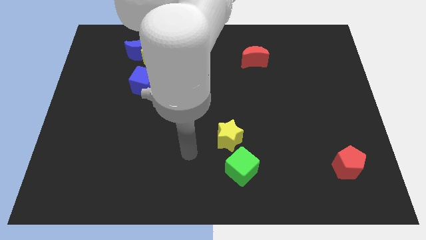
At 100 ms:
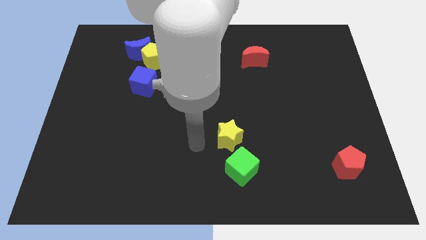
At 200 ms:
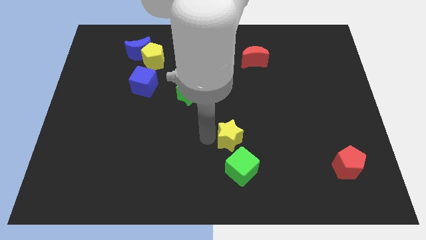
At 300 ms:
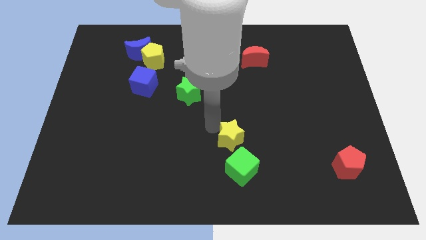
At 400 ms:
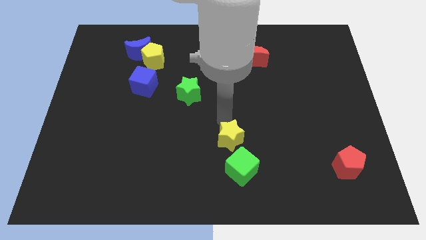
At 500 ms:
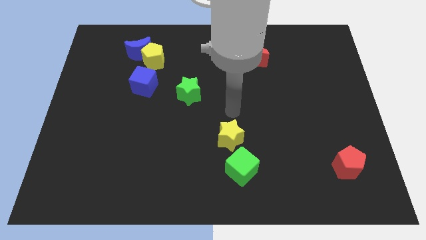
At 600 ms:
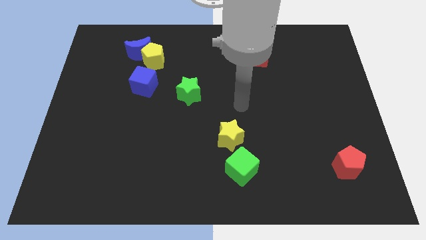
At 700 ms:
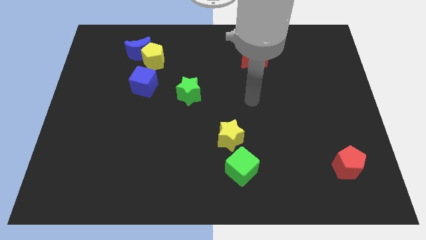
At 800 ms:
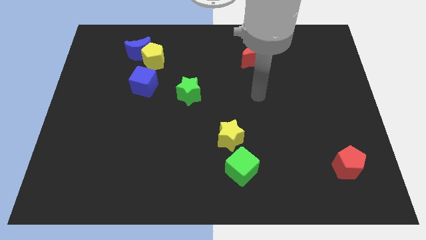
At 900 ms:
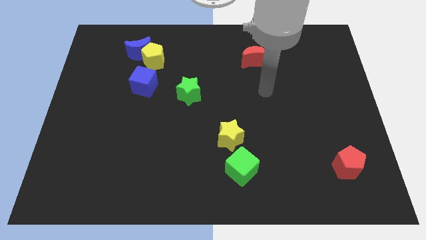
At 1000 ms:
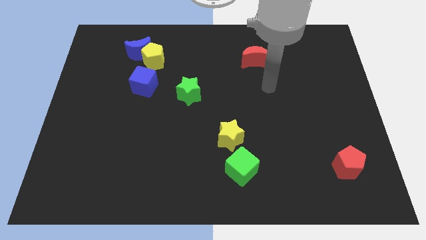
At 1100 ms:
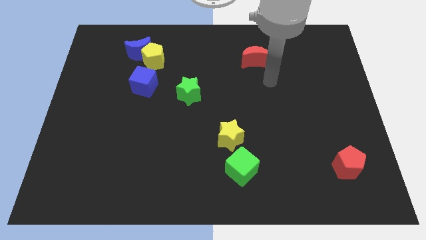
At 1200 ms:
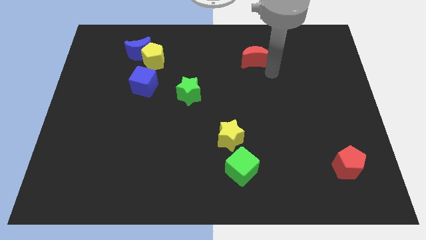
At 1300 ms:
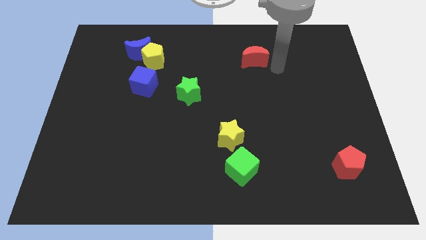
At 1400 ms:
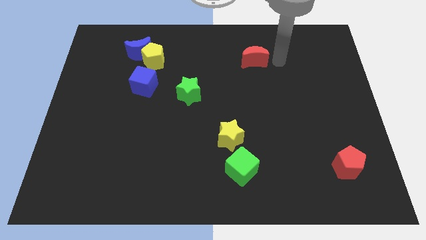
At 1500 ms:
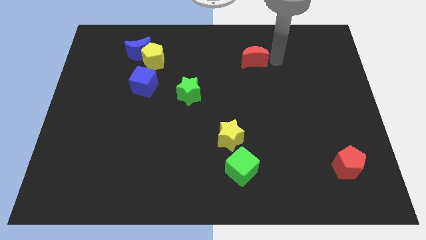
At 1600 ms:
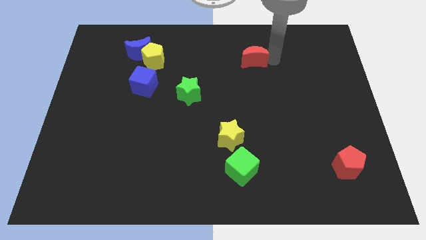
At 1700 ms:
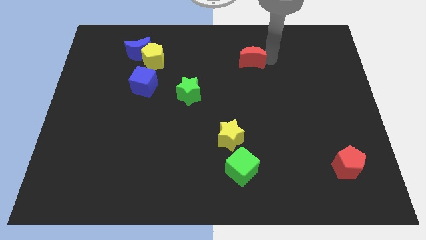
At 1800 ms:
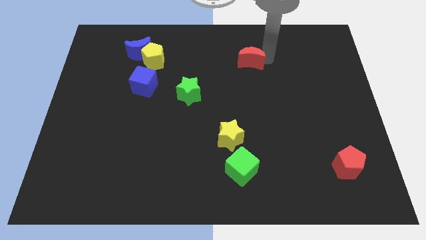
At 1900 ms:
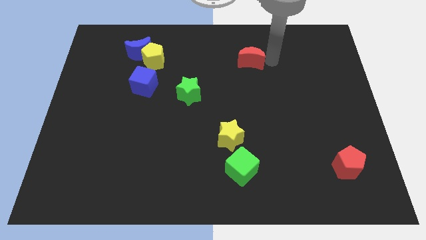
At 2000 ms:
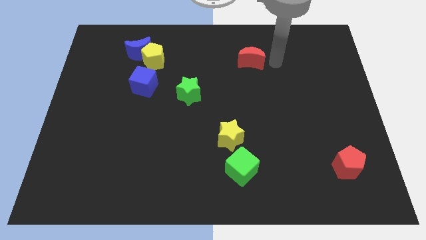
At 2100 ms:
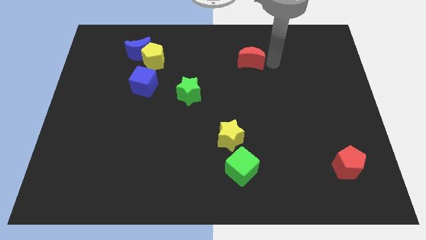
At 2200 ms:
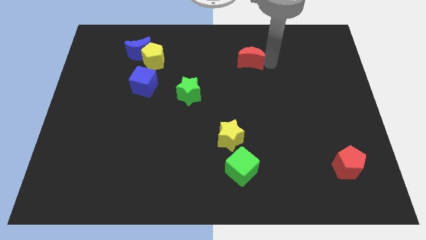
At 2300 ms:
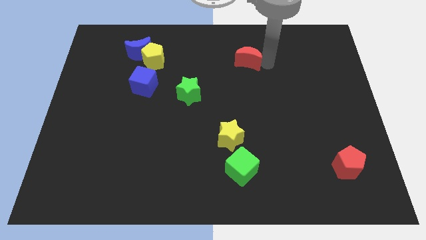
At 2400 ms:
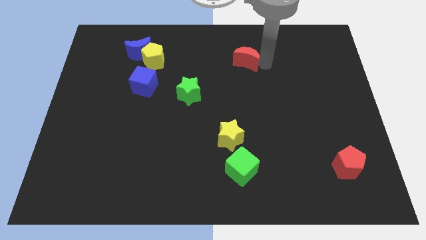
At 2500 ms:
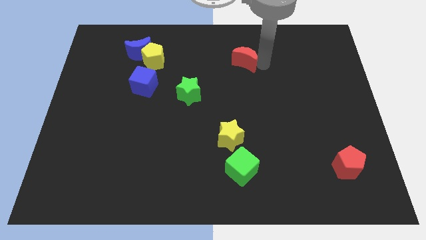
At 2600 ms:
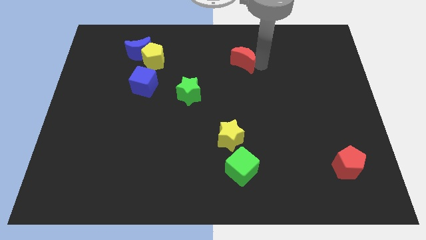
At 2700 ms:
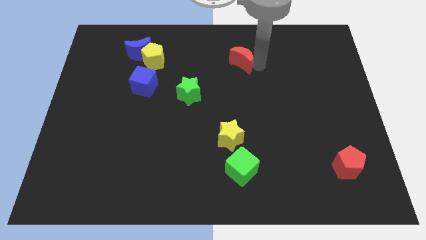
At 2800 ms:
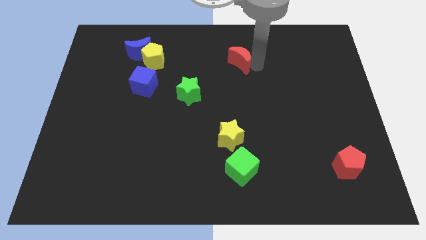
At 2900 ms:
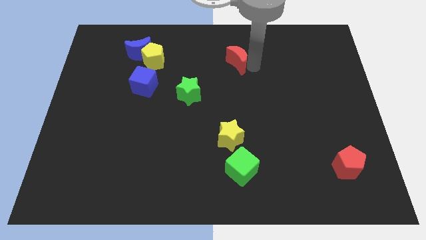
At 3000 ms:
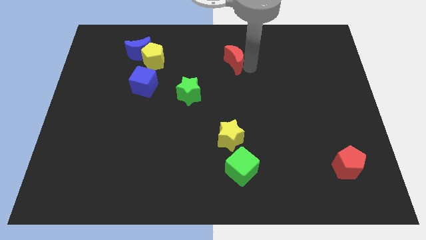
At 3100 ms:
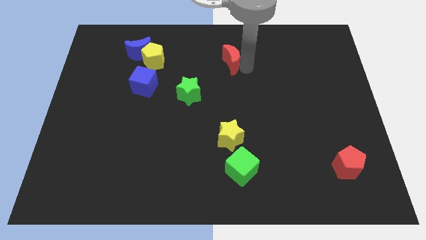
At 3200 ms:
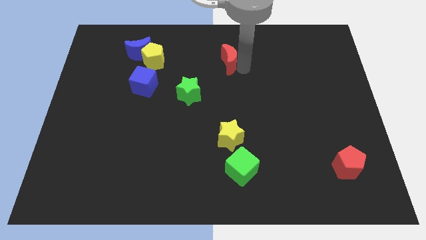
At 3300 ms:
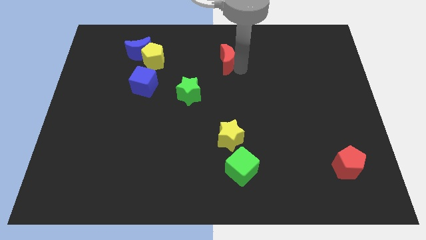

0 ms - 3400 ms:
push the red moon somewhat left

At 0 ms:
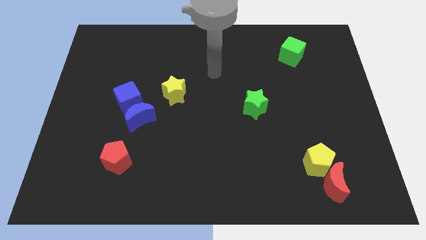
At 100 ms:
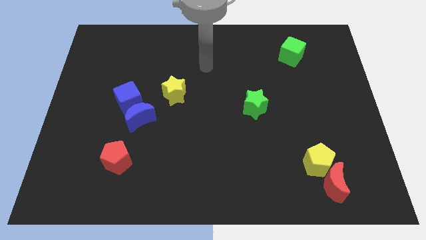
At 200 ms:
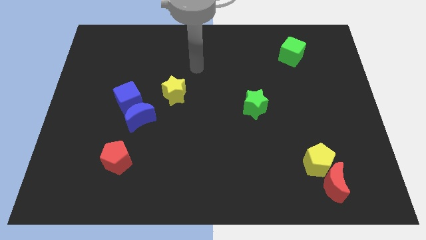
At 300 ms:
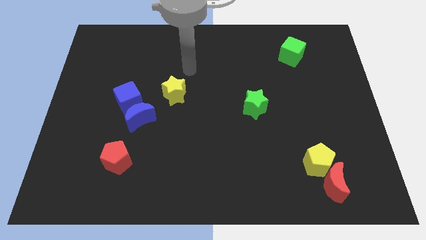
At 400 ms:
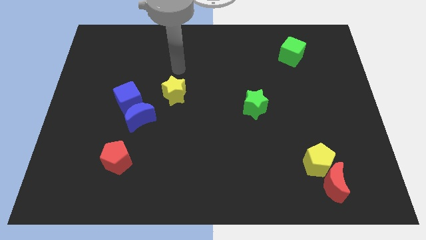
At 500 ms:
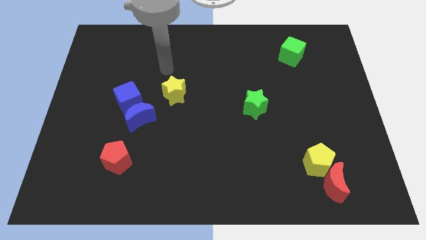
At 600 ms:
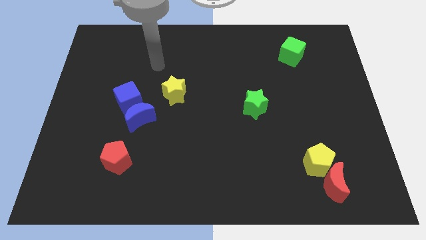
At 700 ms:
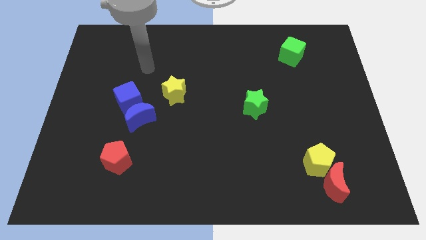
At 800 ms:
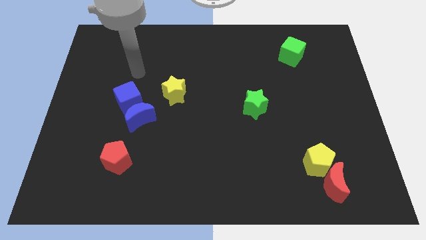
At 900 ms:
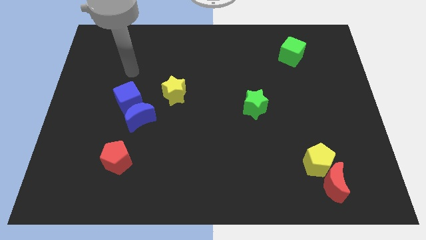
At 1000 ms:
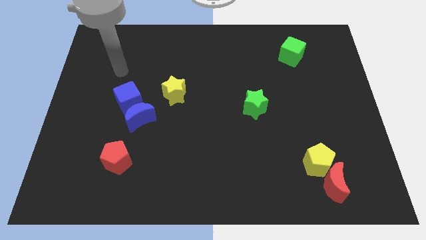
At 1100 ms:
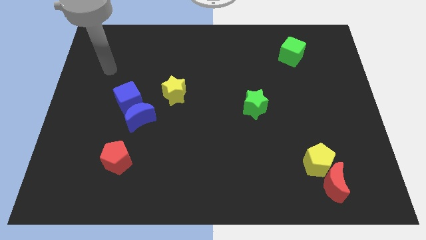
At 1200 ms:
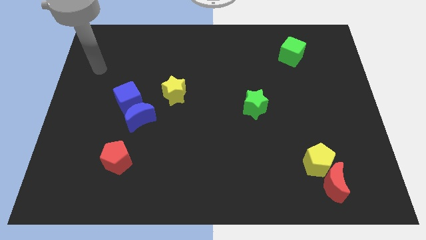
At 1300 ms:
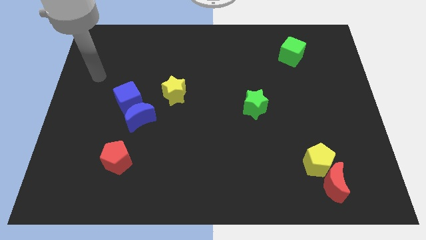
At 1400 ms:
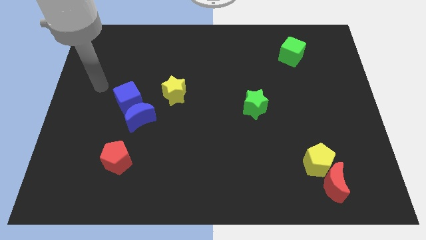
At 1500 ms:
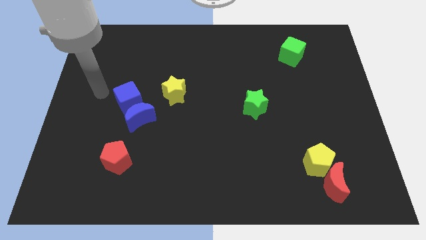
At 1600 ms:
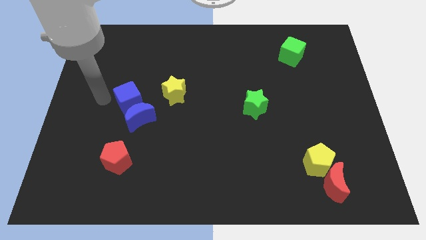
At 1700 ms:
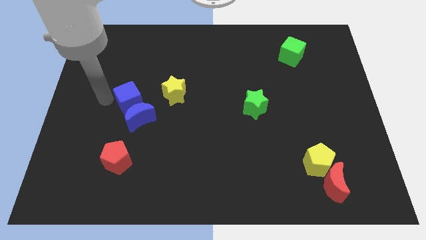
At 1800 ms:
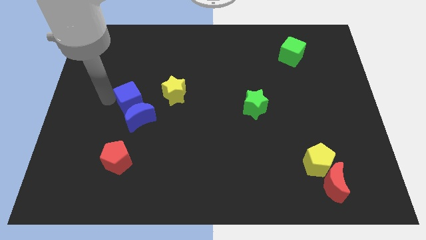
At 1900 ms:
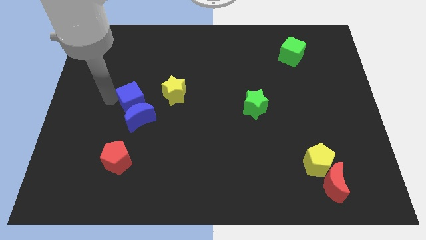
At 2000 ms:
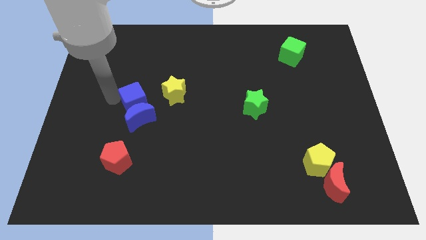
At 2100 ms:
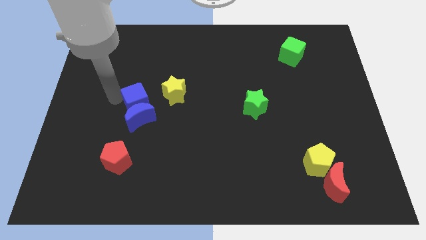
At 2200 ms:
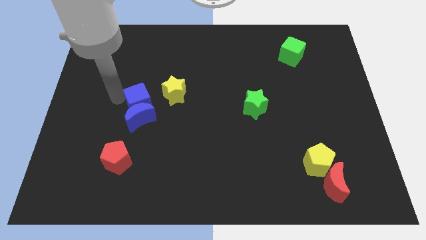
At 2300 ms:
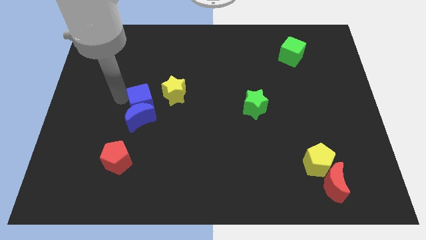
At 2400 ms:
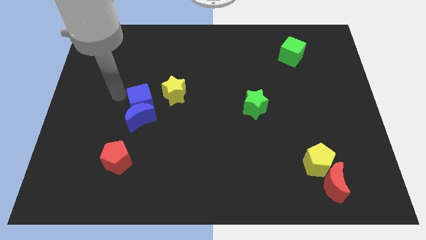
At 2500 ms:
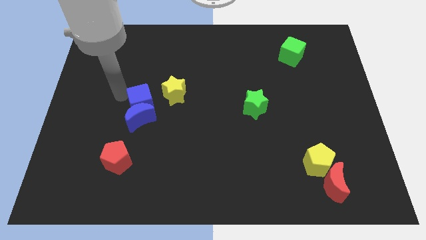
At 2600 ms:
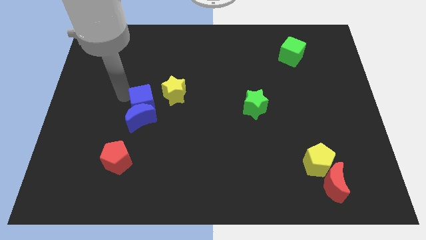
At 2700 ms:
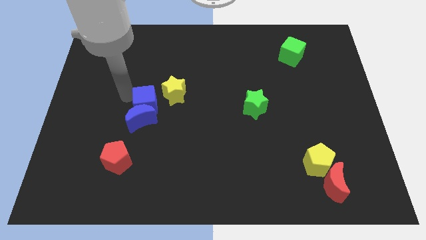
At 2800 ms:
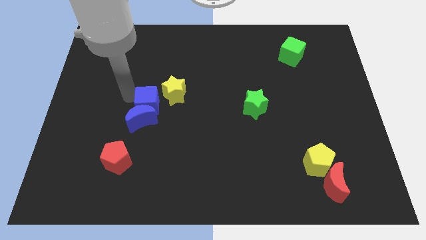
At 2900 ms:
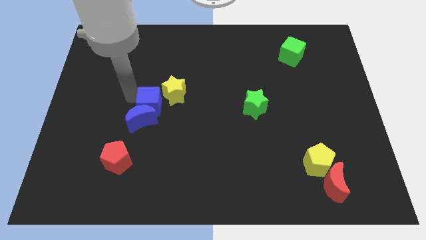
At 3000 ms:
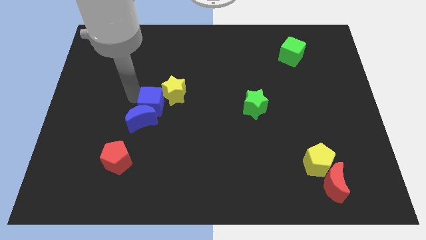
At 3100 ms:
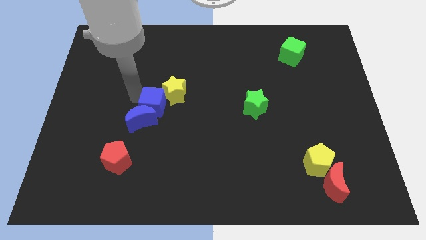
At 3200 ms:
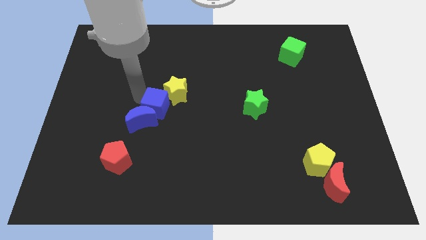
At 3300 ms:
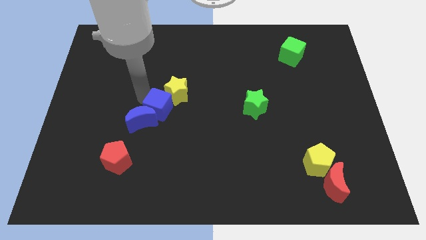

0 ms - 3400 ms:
slide the blue cube to the right a bit

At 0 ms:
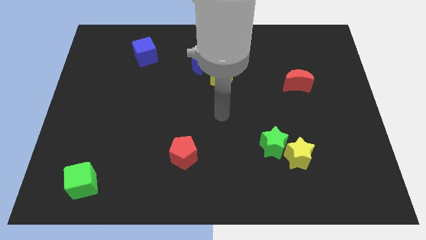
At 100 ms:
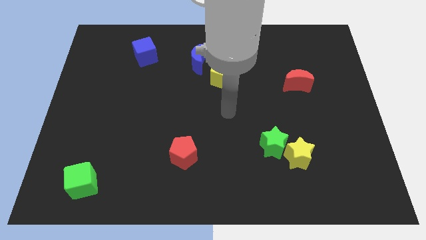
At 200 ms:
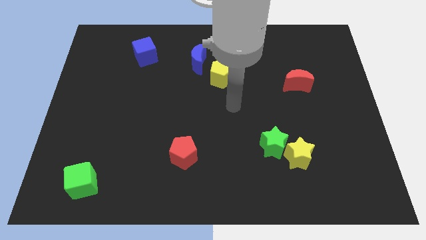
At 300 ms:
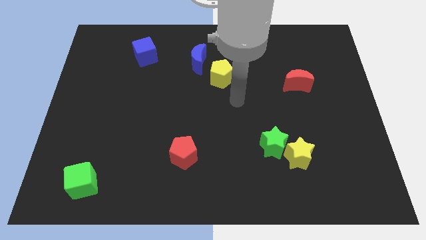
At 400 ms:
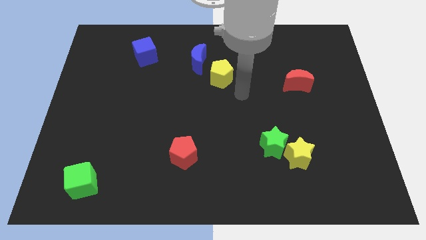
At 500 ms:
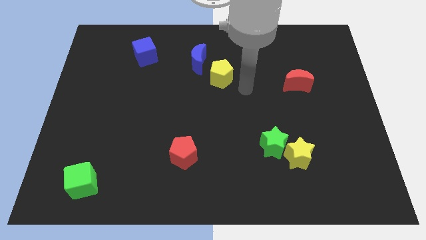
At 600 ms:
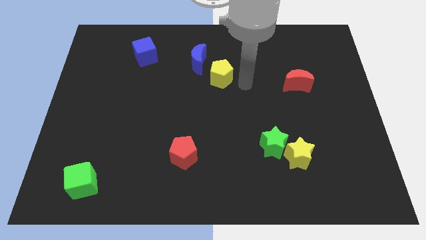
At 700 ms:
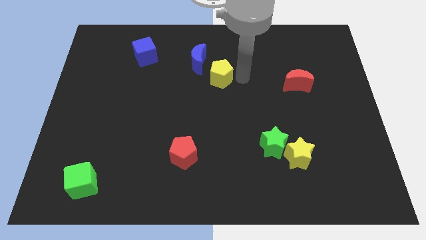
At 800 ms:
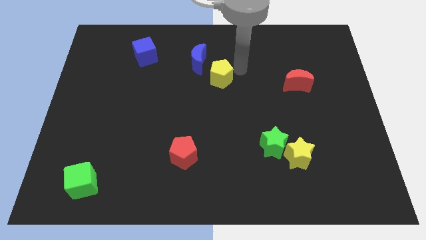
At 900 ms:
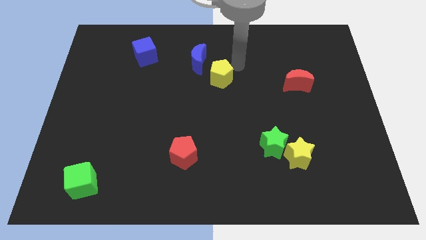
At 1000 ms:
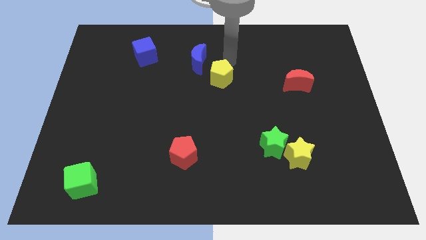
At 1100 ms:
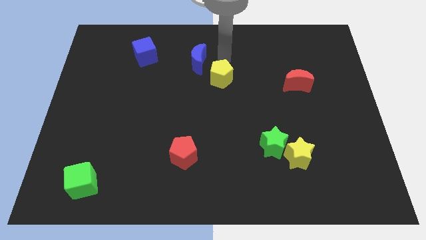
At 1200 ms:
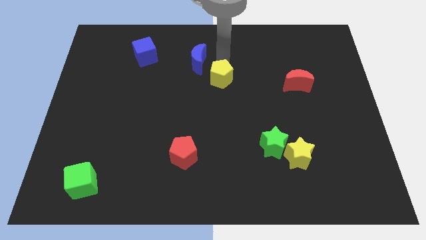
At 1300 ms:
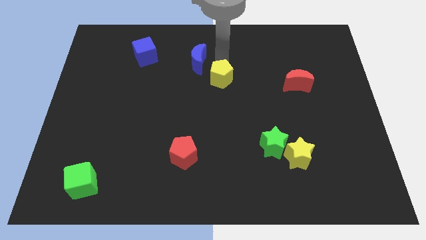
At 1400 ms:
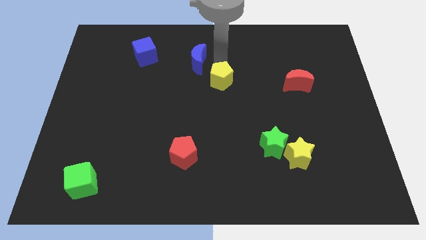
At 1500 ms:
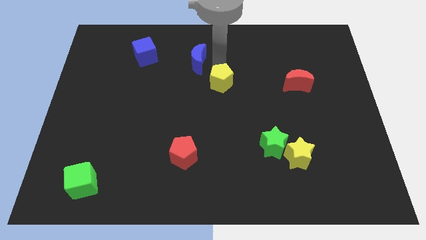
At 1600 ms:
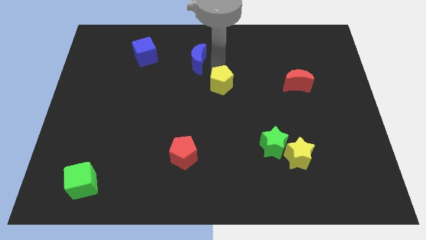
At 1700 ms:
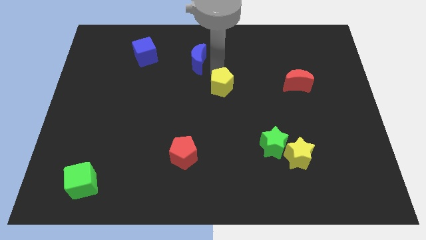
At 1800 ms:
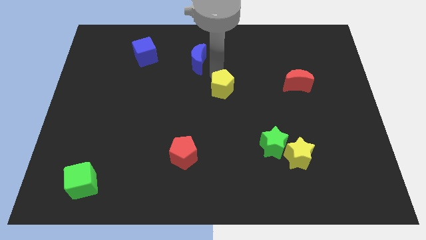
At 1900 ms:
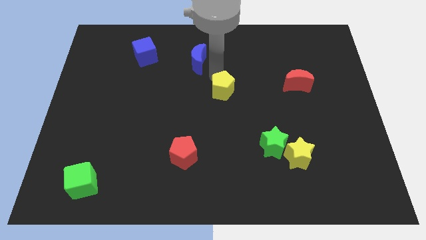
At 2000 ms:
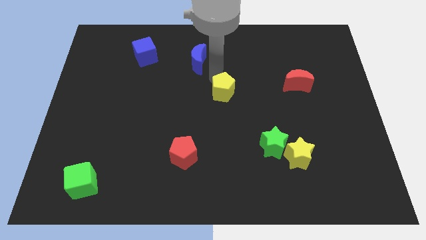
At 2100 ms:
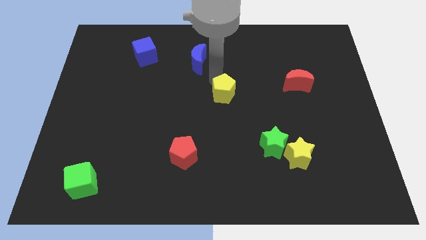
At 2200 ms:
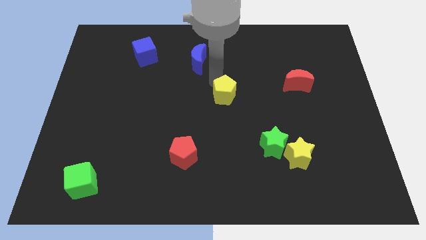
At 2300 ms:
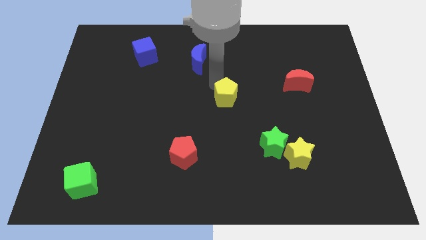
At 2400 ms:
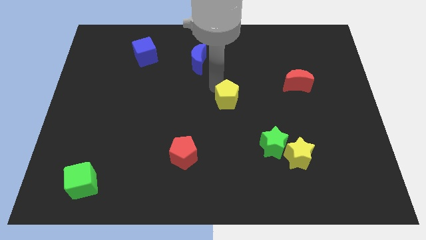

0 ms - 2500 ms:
move the yellow pentagon somewhat downwards
